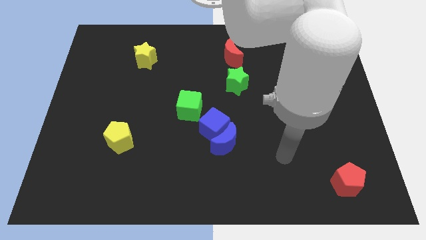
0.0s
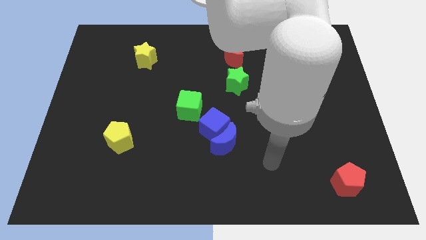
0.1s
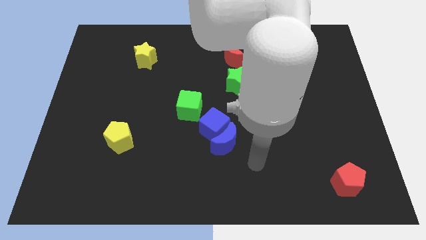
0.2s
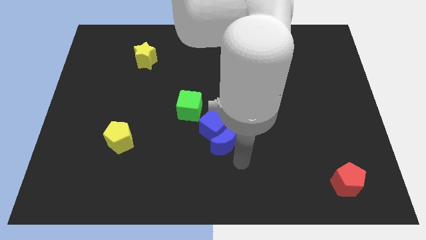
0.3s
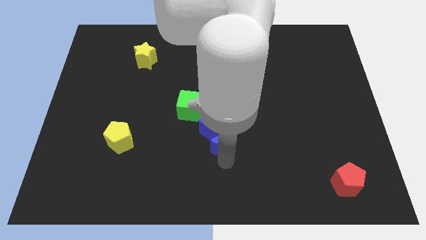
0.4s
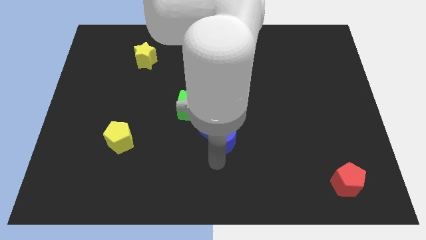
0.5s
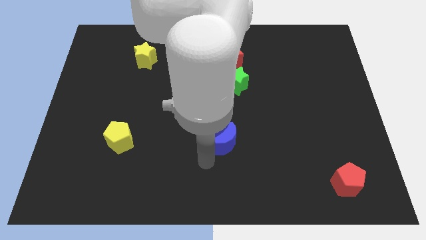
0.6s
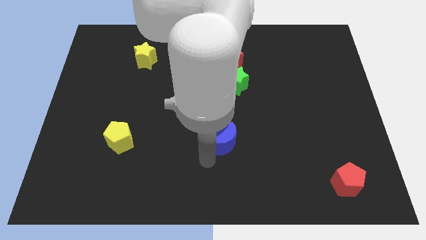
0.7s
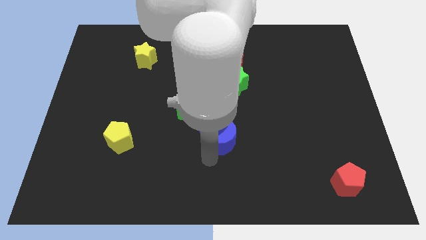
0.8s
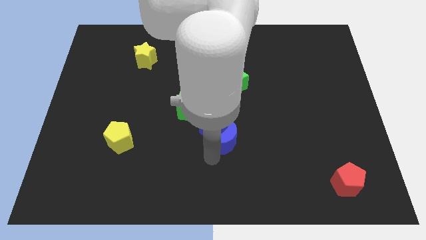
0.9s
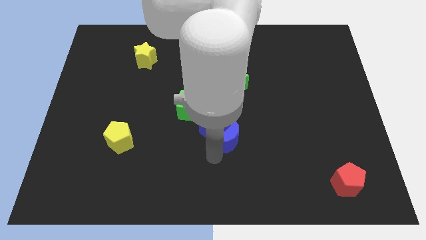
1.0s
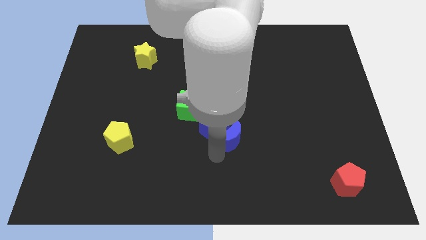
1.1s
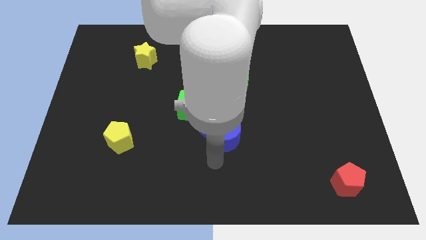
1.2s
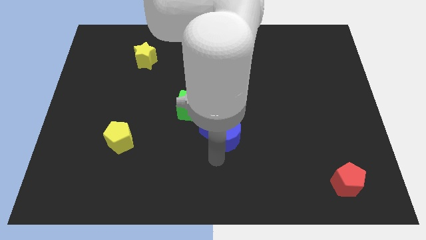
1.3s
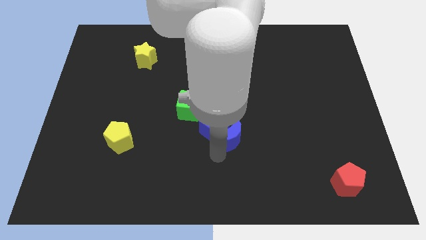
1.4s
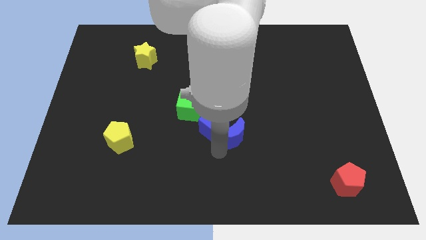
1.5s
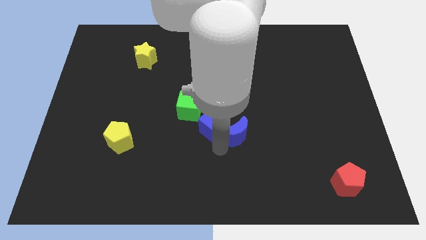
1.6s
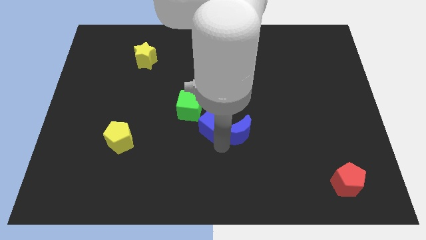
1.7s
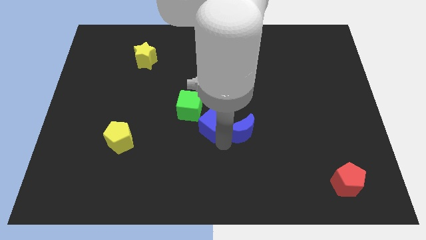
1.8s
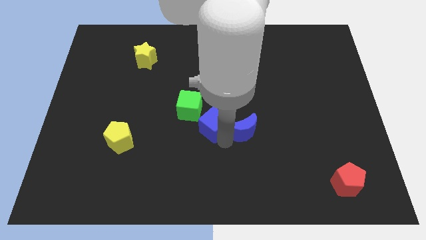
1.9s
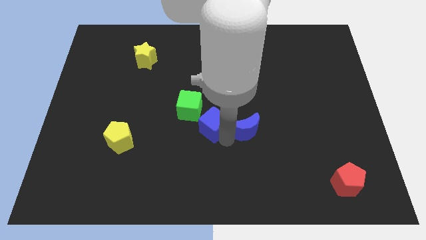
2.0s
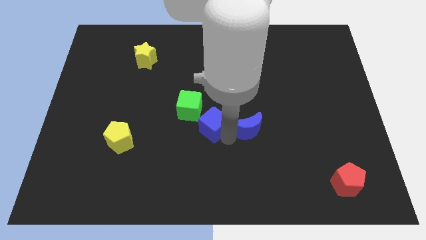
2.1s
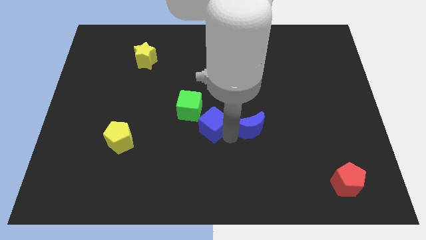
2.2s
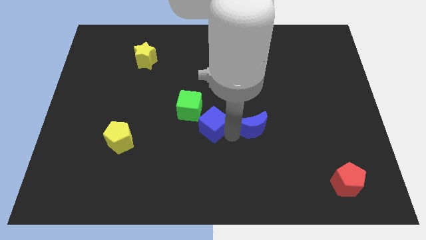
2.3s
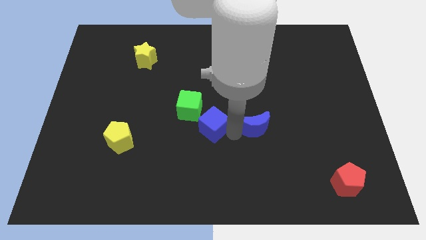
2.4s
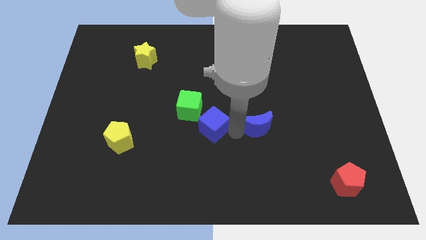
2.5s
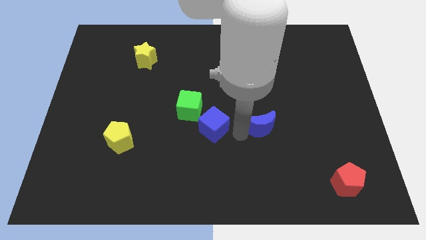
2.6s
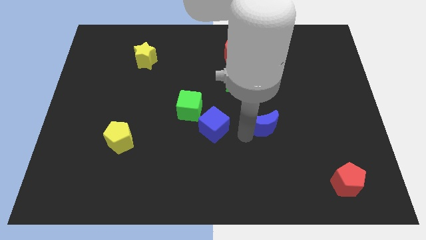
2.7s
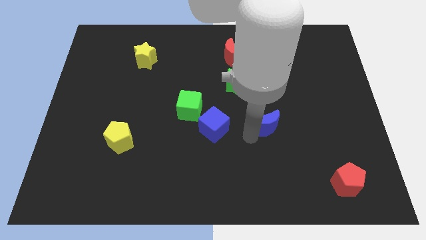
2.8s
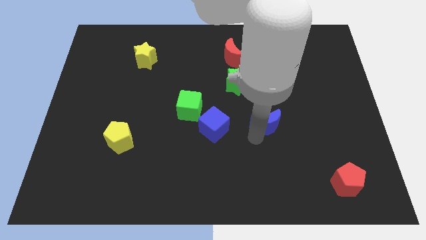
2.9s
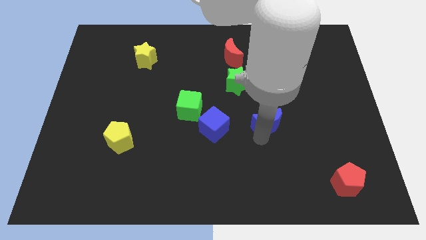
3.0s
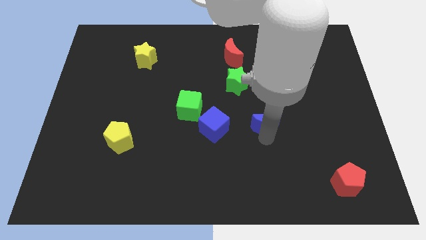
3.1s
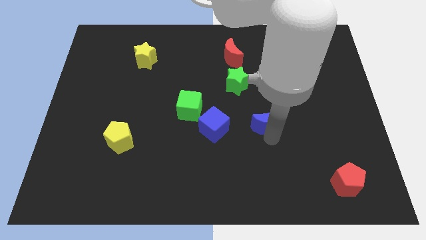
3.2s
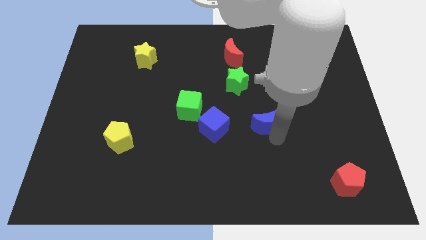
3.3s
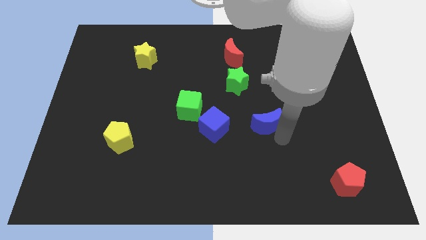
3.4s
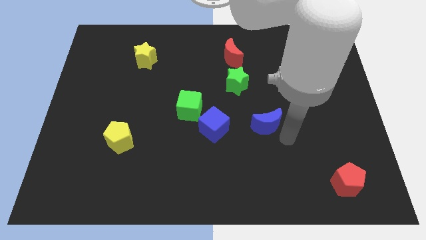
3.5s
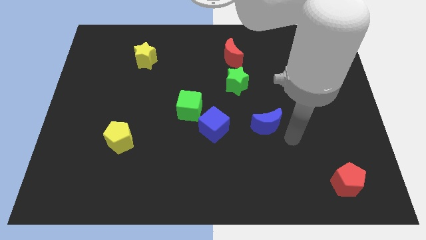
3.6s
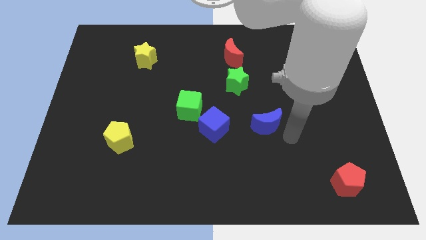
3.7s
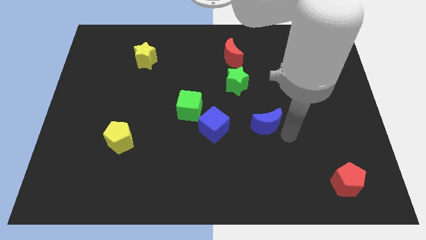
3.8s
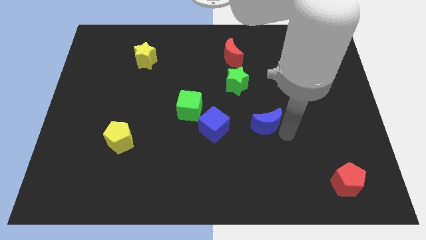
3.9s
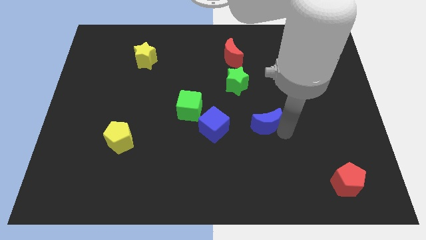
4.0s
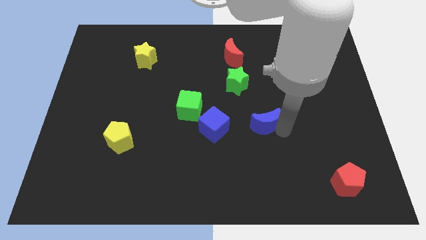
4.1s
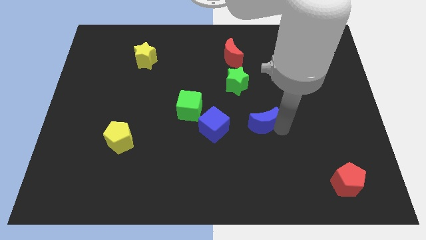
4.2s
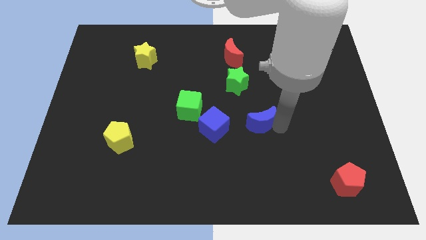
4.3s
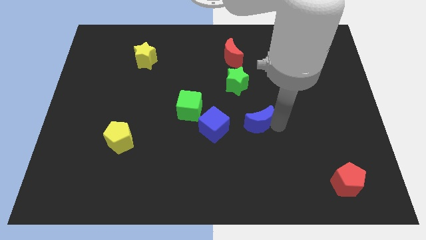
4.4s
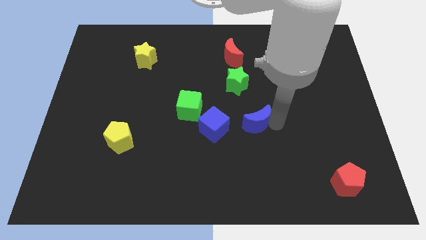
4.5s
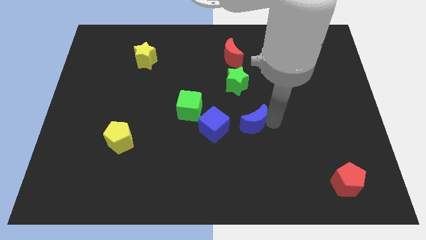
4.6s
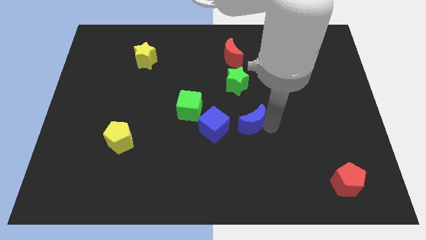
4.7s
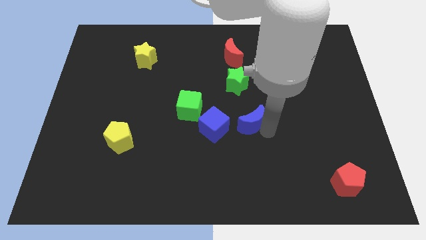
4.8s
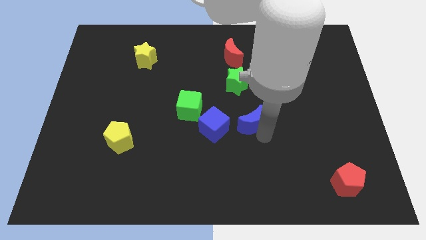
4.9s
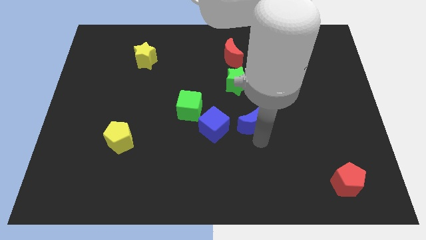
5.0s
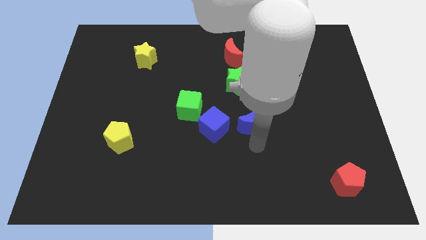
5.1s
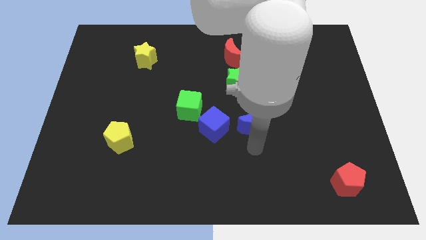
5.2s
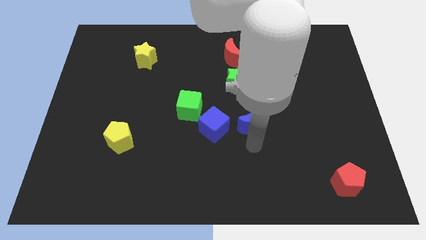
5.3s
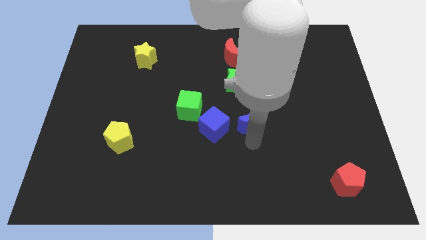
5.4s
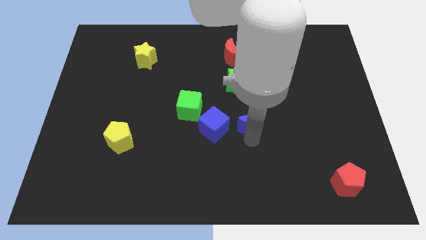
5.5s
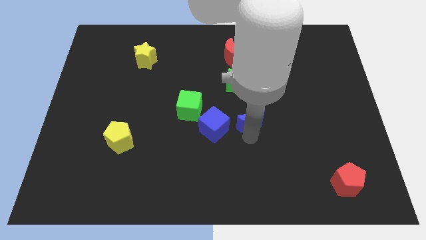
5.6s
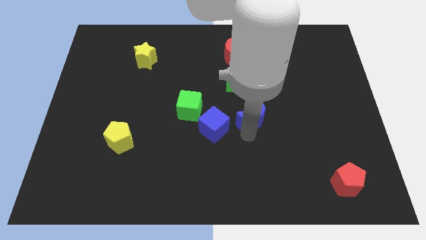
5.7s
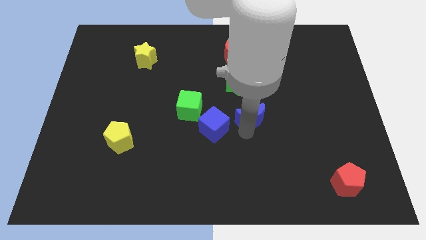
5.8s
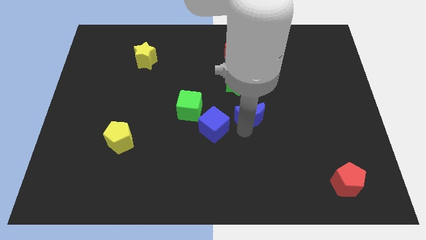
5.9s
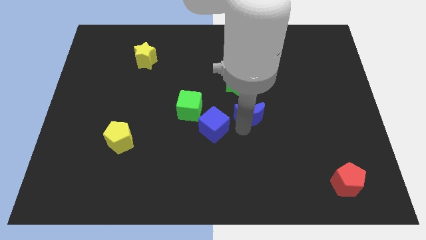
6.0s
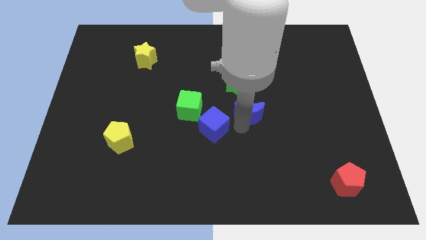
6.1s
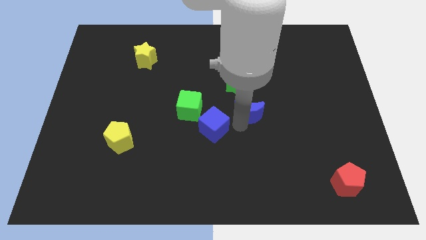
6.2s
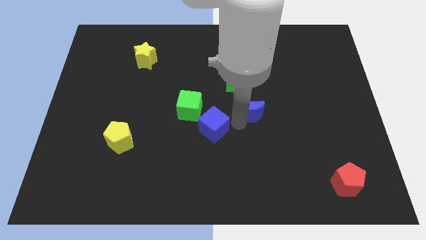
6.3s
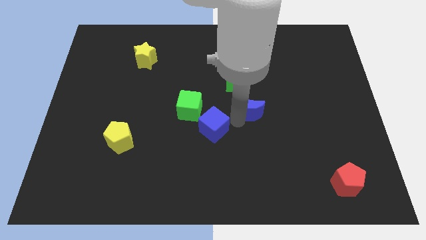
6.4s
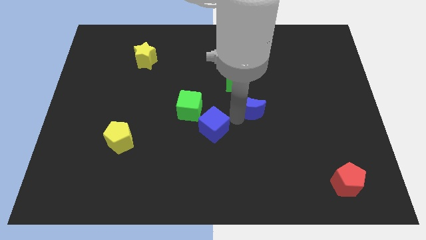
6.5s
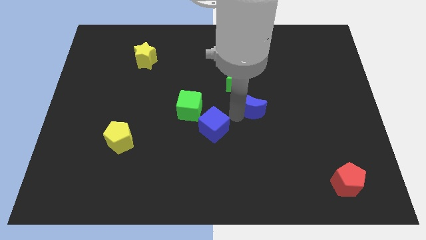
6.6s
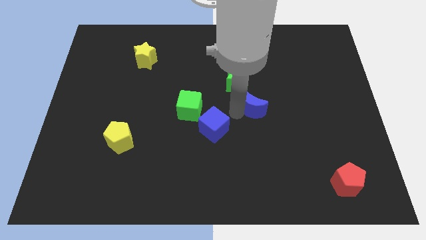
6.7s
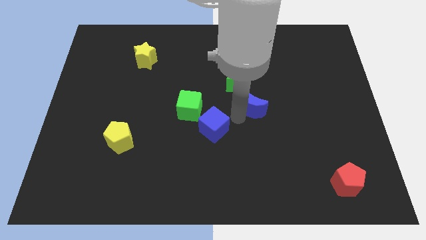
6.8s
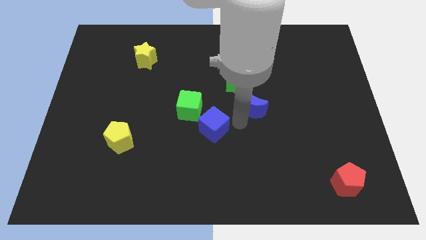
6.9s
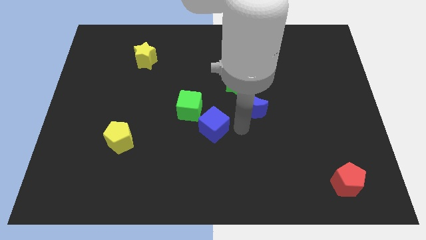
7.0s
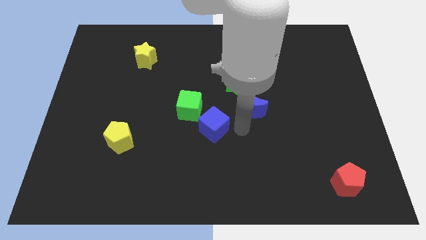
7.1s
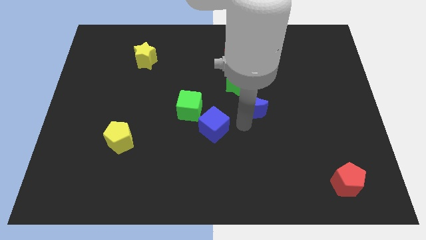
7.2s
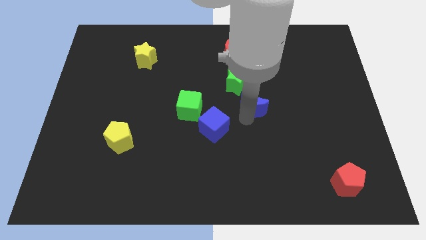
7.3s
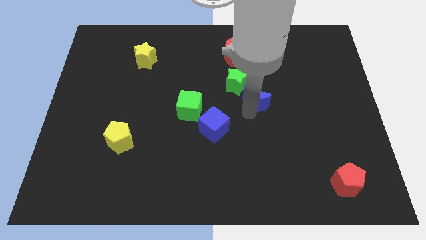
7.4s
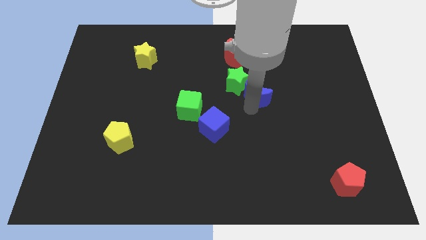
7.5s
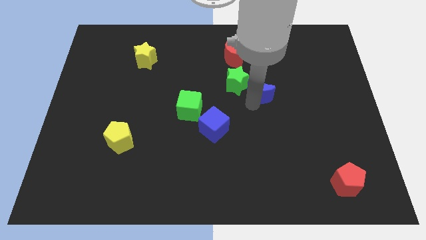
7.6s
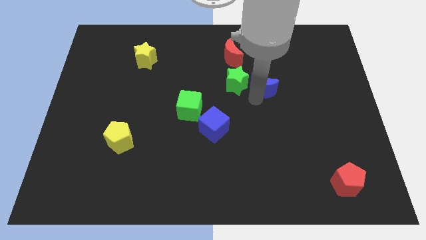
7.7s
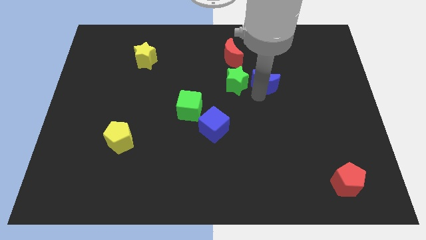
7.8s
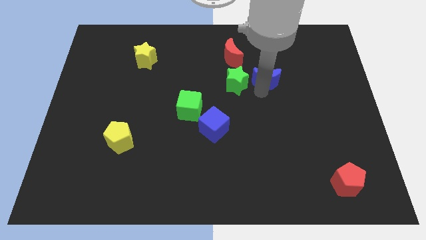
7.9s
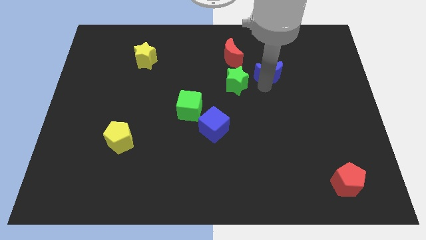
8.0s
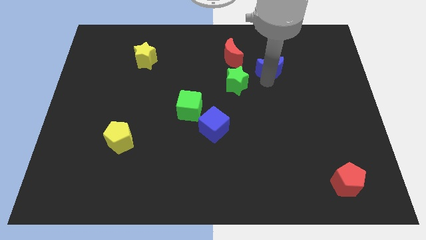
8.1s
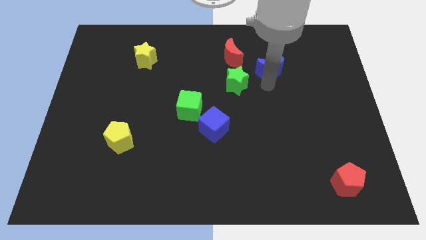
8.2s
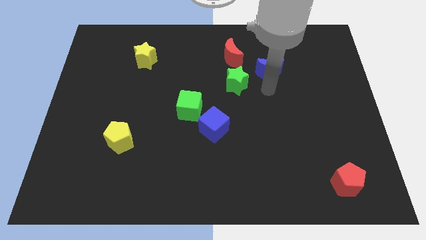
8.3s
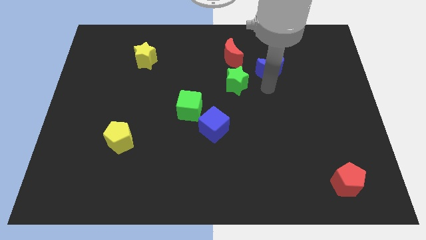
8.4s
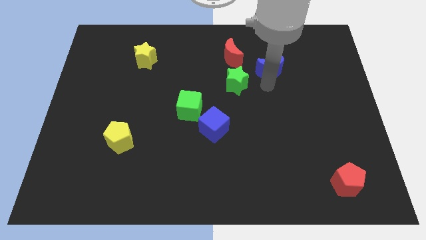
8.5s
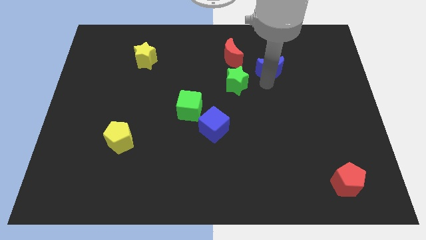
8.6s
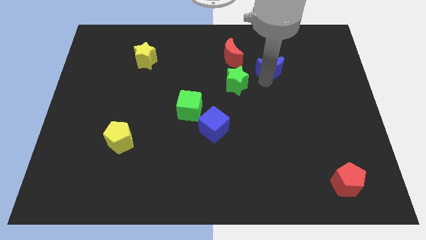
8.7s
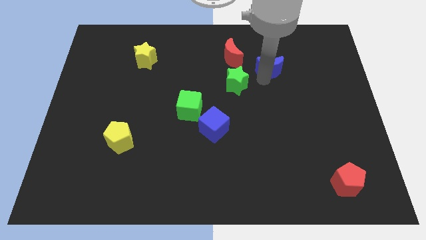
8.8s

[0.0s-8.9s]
slide the blue moon right of the red moon
